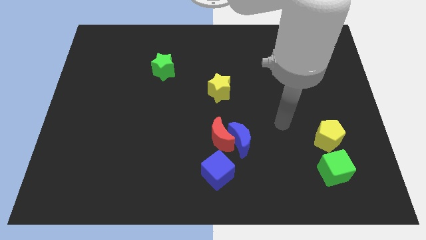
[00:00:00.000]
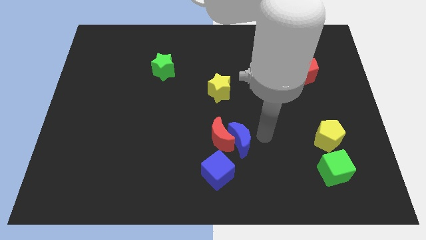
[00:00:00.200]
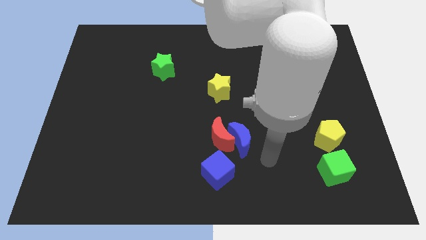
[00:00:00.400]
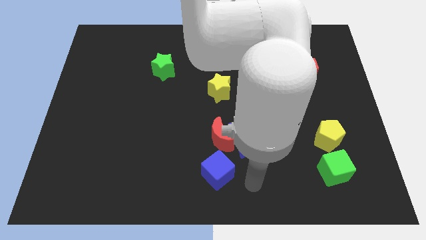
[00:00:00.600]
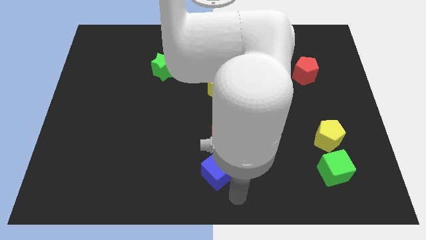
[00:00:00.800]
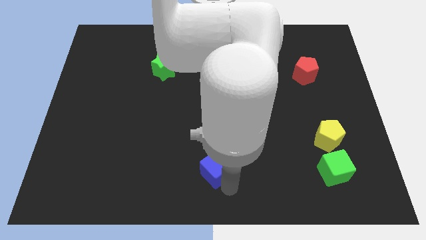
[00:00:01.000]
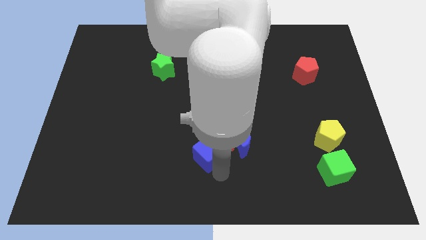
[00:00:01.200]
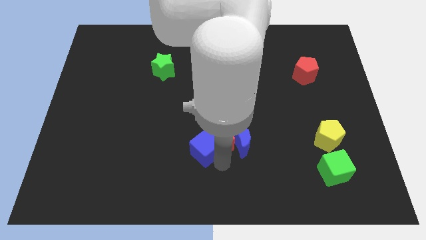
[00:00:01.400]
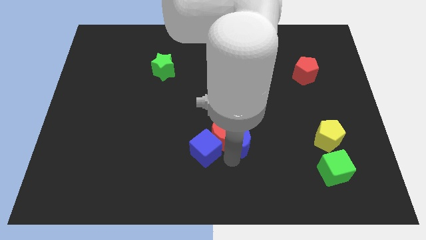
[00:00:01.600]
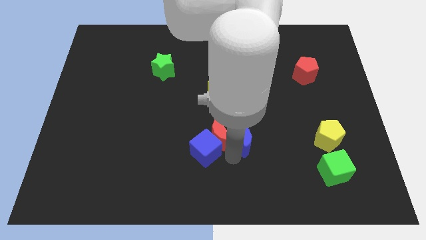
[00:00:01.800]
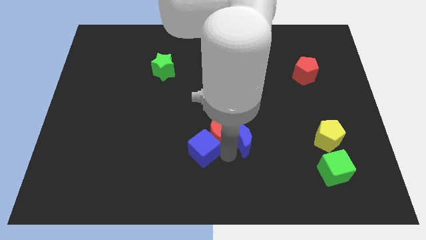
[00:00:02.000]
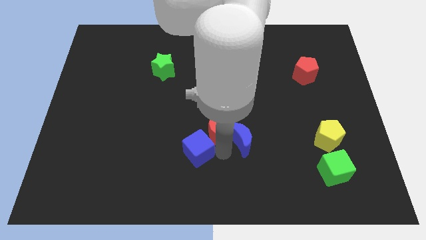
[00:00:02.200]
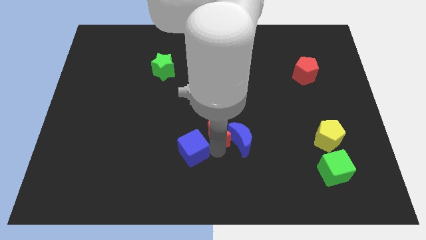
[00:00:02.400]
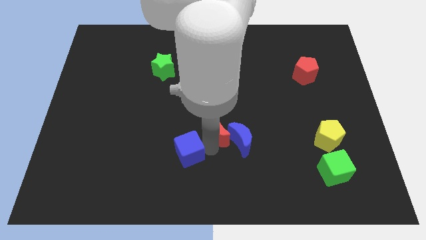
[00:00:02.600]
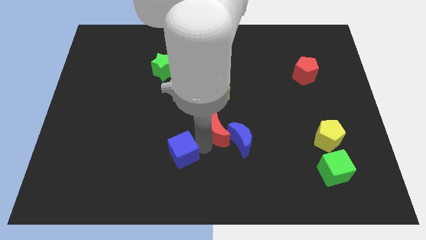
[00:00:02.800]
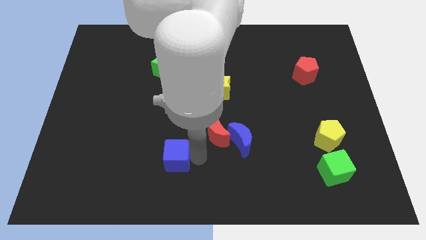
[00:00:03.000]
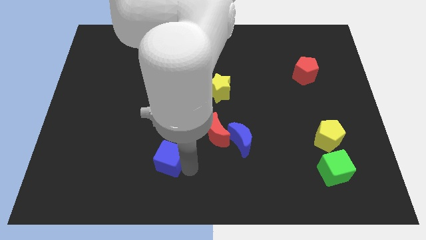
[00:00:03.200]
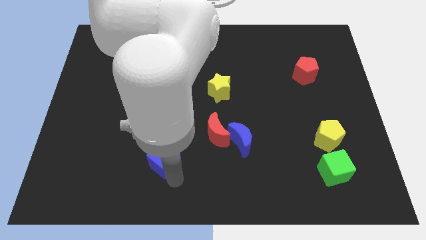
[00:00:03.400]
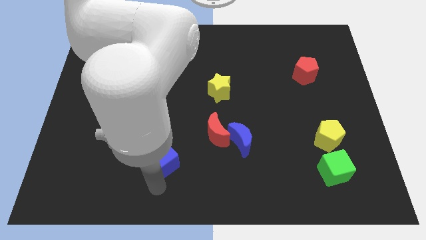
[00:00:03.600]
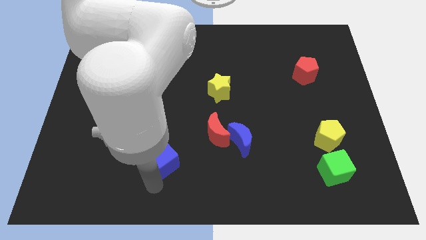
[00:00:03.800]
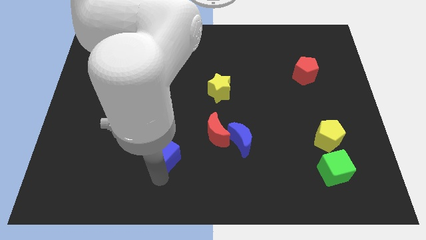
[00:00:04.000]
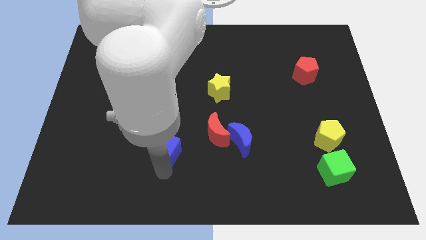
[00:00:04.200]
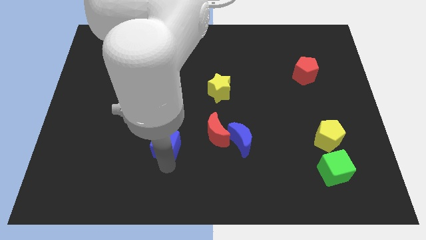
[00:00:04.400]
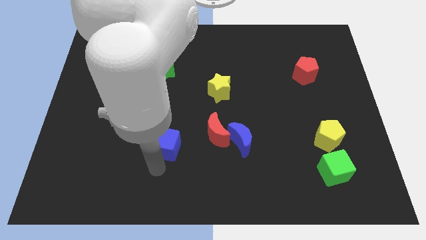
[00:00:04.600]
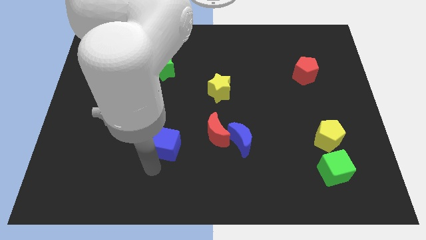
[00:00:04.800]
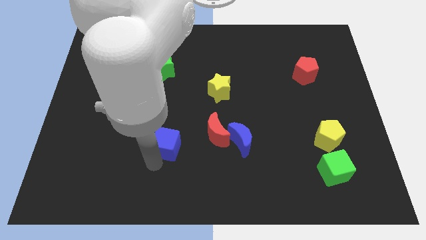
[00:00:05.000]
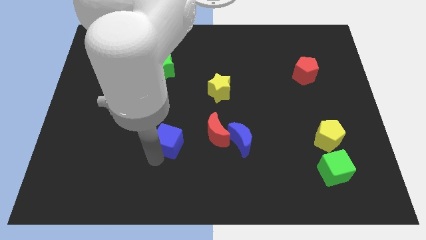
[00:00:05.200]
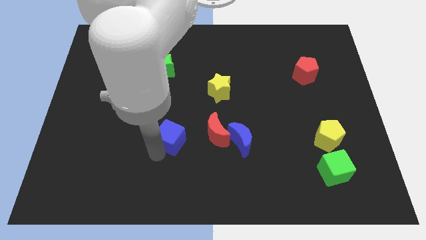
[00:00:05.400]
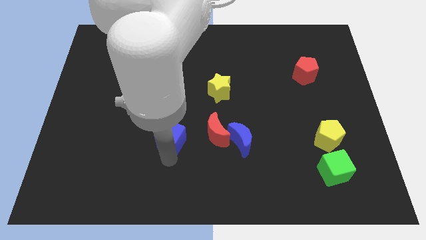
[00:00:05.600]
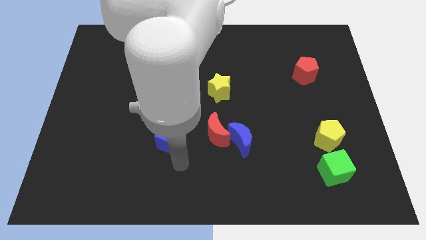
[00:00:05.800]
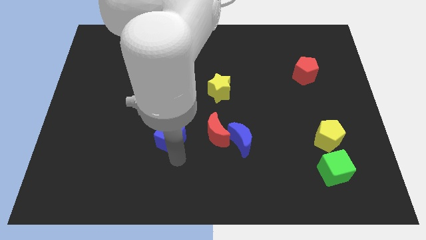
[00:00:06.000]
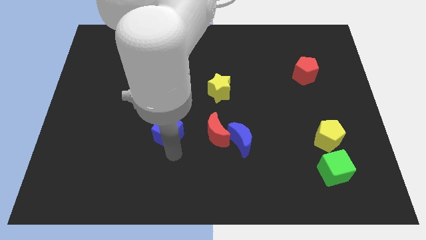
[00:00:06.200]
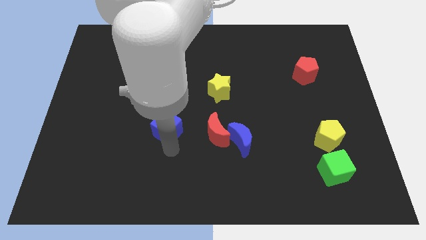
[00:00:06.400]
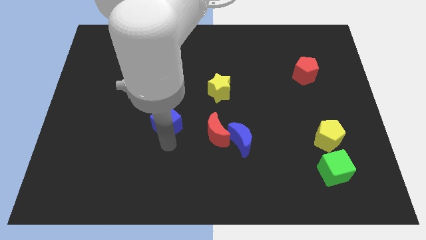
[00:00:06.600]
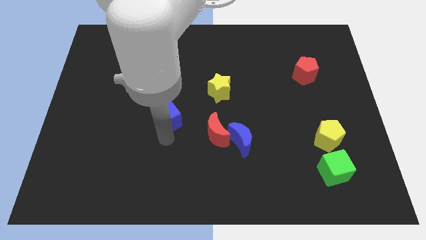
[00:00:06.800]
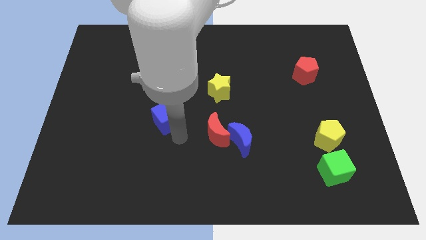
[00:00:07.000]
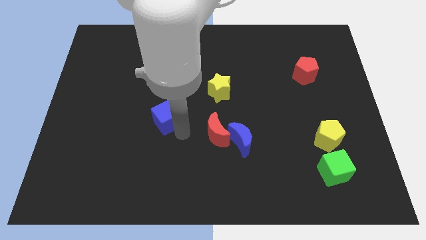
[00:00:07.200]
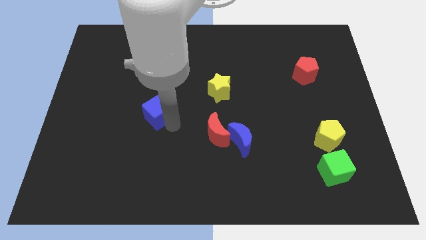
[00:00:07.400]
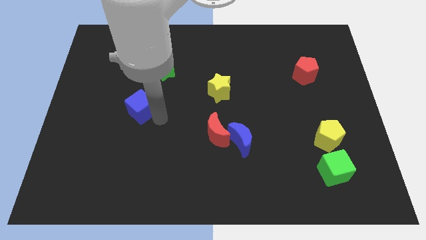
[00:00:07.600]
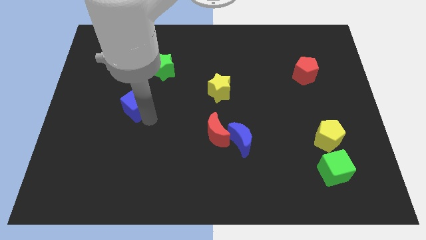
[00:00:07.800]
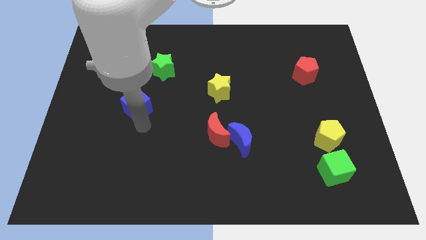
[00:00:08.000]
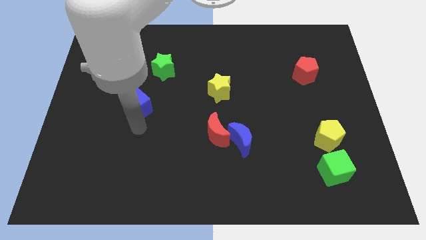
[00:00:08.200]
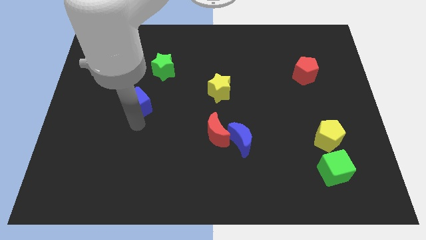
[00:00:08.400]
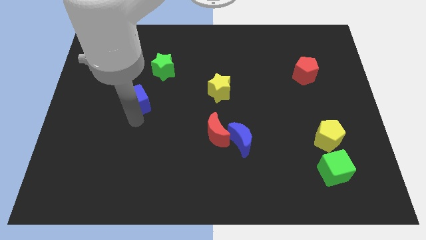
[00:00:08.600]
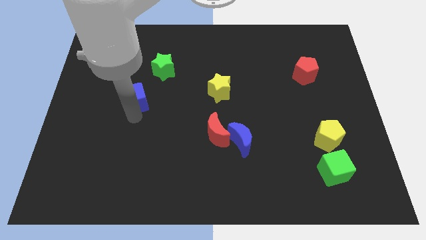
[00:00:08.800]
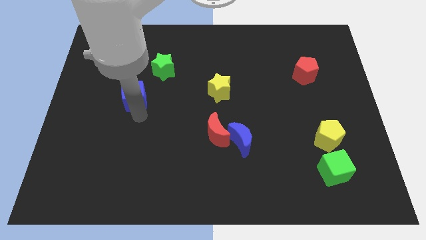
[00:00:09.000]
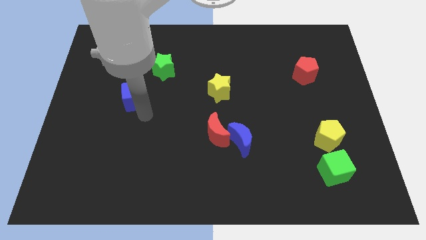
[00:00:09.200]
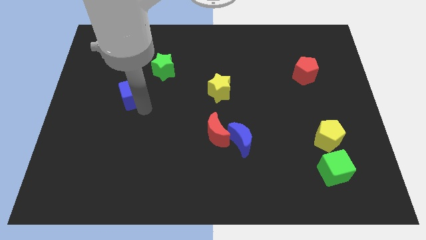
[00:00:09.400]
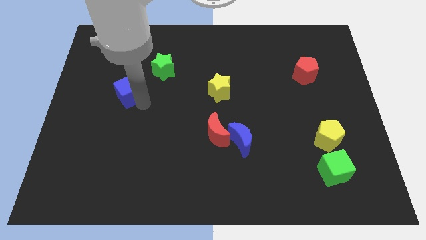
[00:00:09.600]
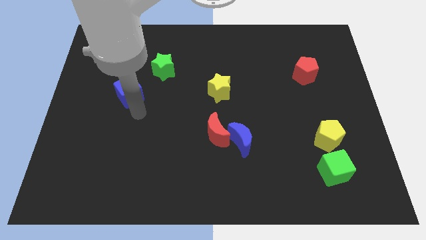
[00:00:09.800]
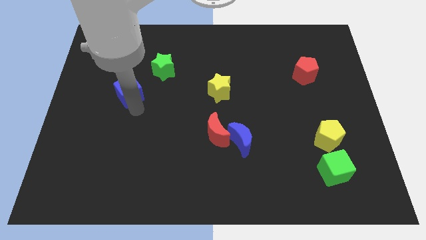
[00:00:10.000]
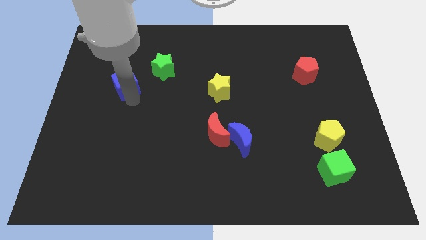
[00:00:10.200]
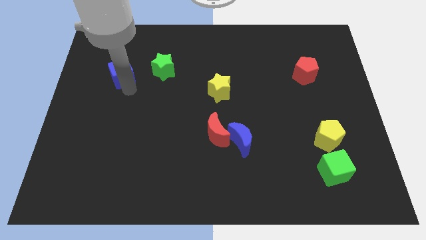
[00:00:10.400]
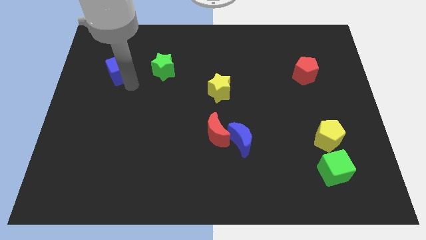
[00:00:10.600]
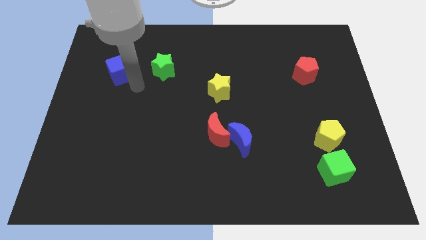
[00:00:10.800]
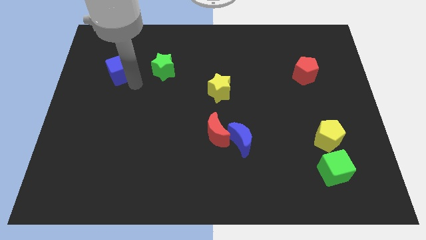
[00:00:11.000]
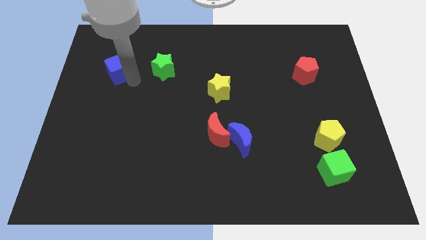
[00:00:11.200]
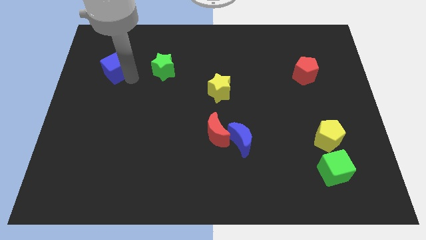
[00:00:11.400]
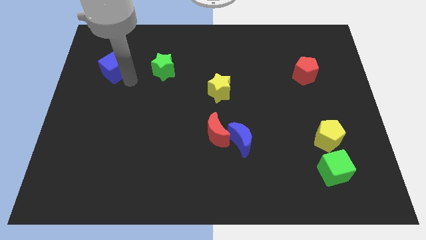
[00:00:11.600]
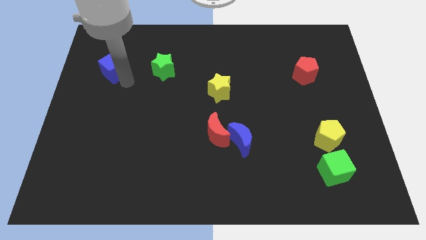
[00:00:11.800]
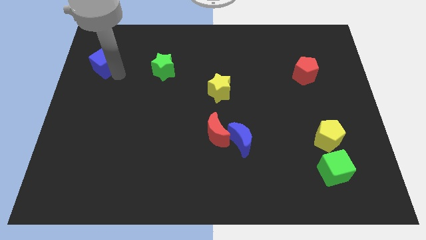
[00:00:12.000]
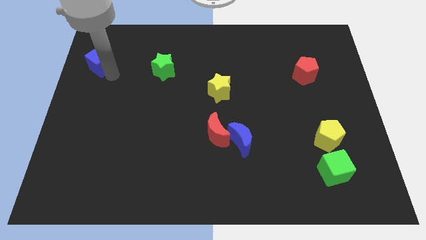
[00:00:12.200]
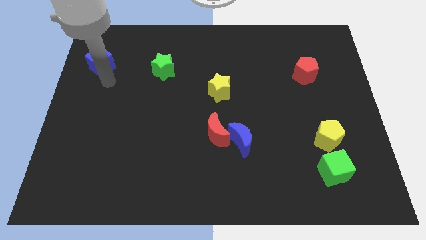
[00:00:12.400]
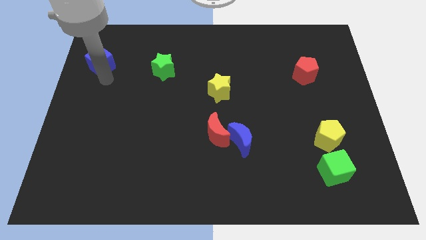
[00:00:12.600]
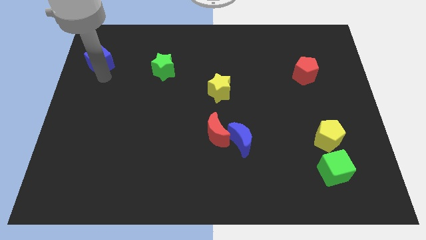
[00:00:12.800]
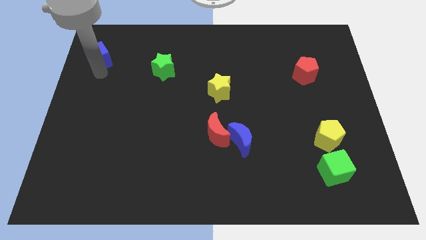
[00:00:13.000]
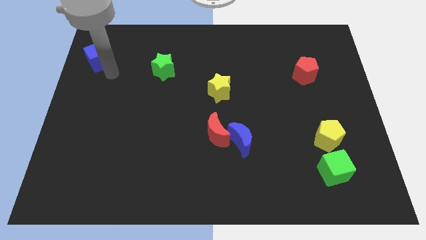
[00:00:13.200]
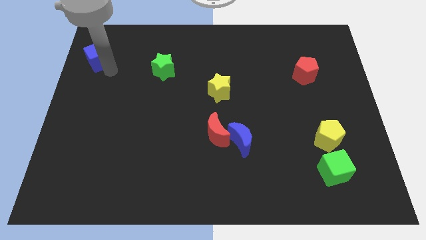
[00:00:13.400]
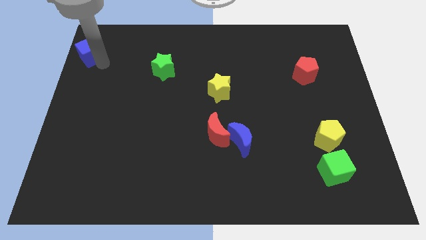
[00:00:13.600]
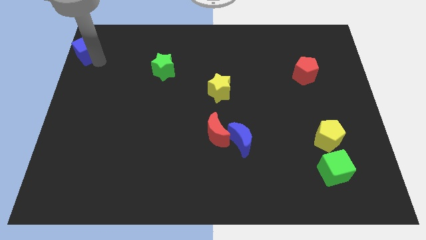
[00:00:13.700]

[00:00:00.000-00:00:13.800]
move the blue cube to the top left corner
